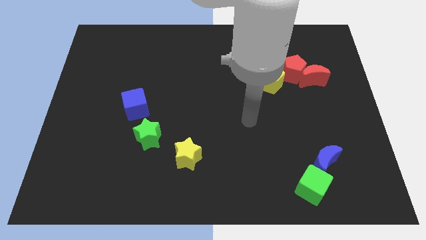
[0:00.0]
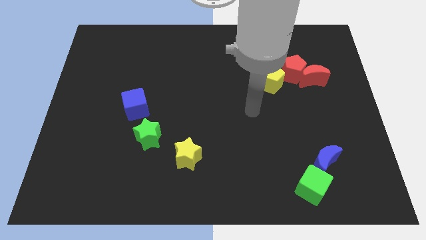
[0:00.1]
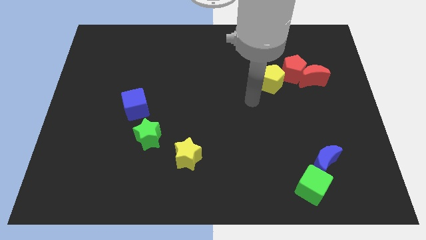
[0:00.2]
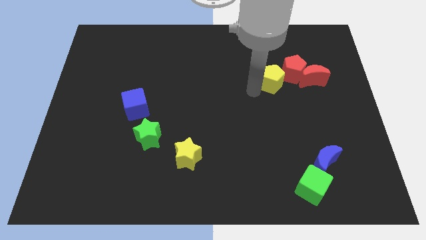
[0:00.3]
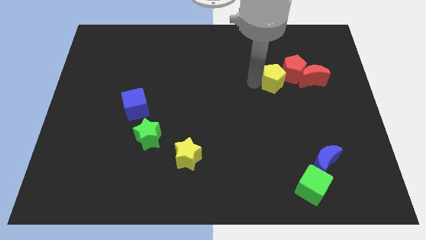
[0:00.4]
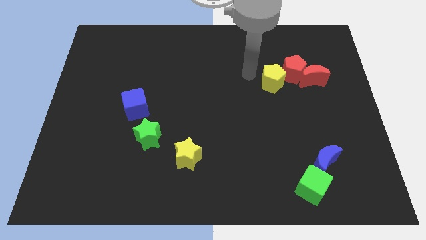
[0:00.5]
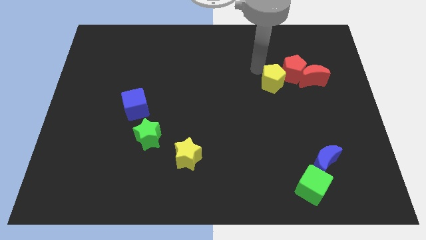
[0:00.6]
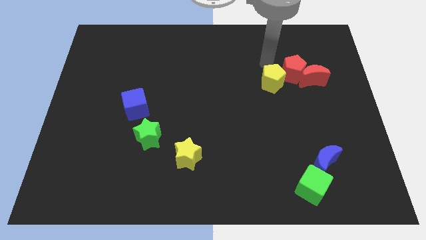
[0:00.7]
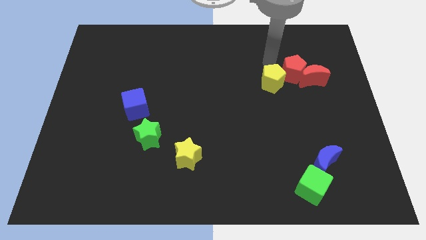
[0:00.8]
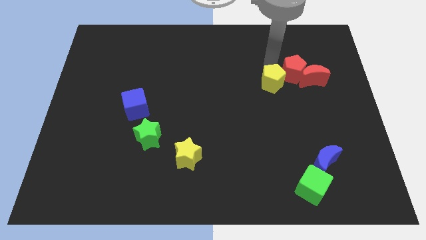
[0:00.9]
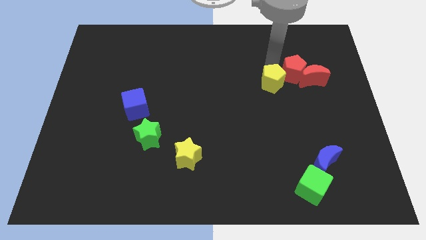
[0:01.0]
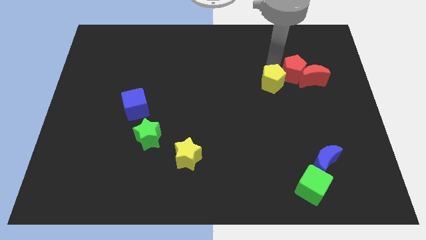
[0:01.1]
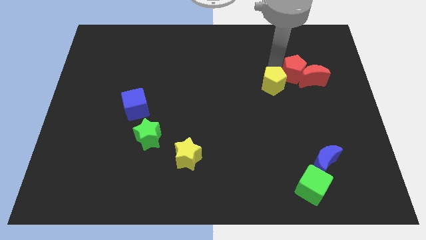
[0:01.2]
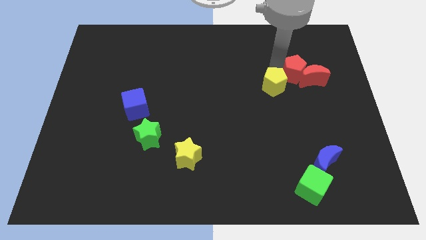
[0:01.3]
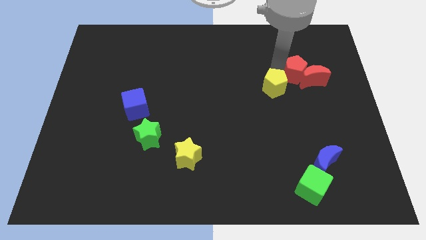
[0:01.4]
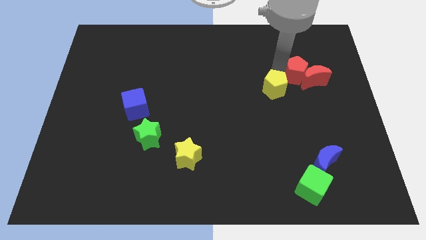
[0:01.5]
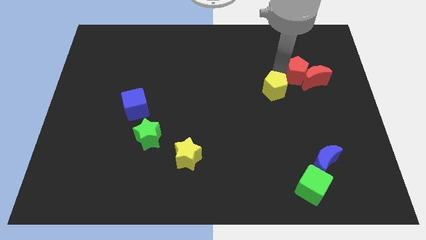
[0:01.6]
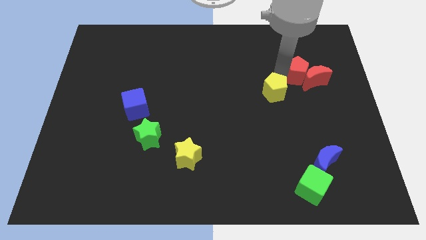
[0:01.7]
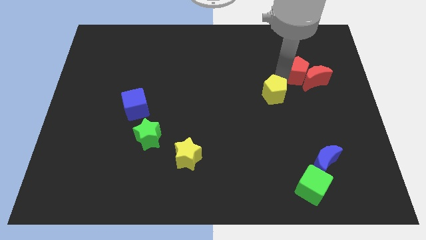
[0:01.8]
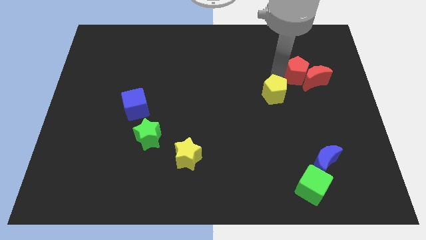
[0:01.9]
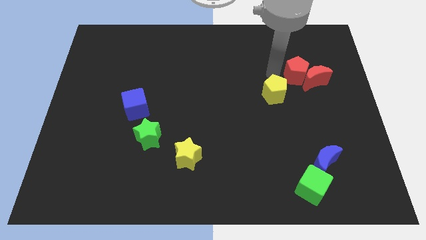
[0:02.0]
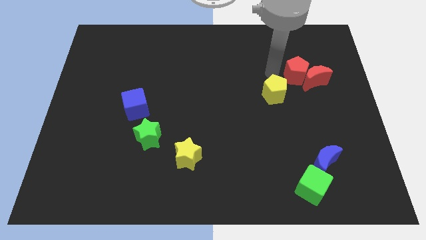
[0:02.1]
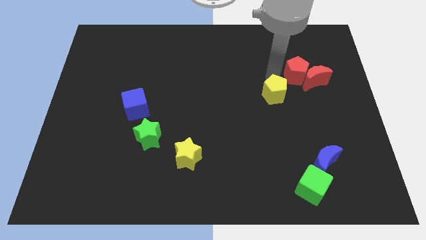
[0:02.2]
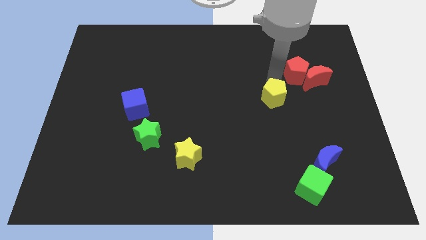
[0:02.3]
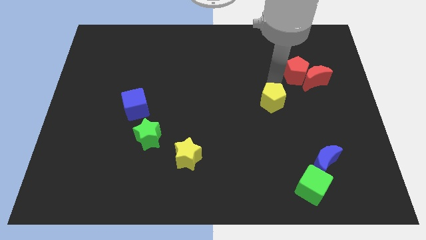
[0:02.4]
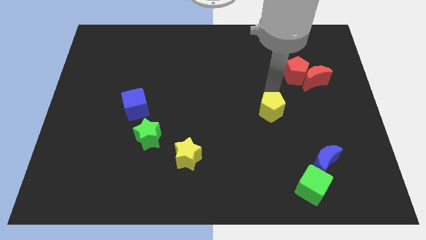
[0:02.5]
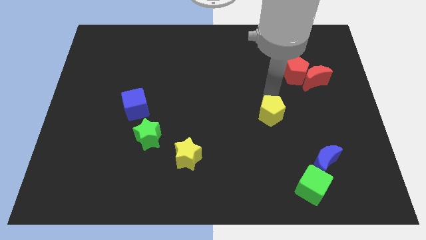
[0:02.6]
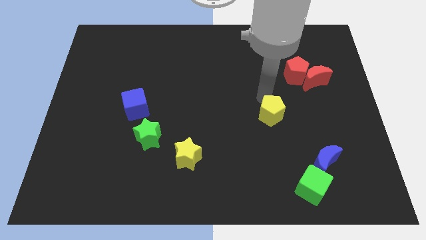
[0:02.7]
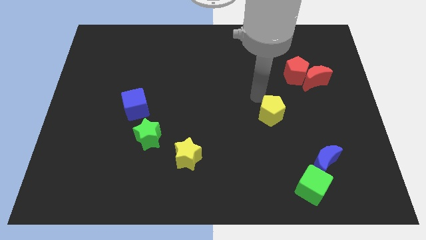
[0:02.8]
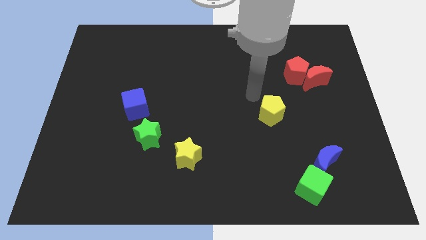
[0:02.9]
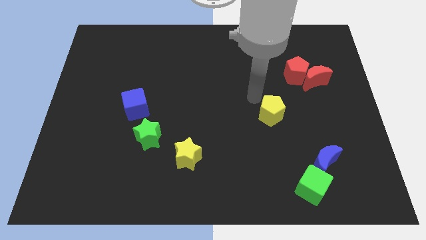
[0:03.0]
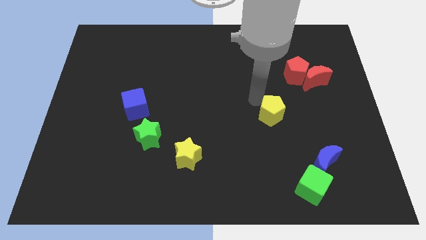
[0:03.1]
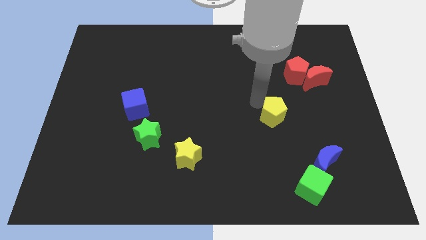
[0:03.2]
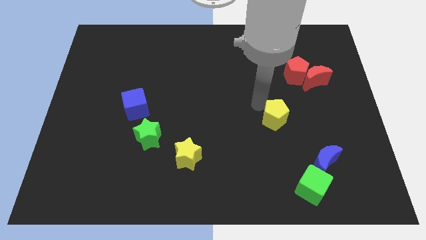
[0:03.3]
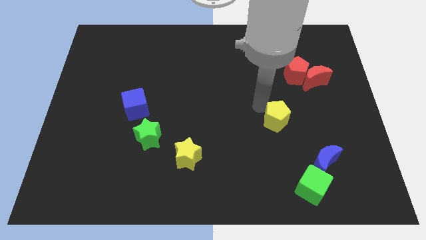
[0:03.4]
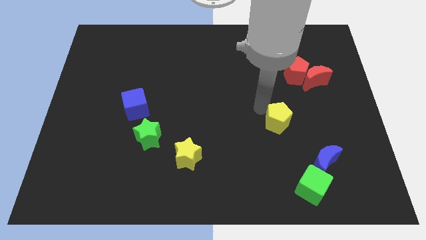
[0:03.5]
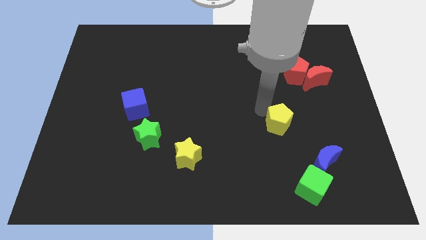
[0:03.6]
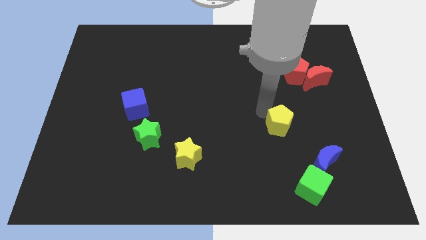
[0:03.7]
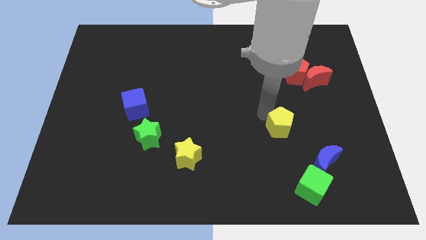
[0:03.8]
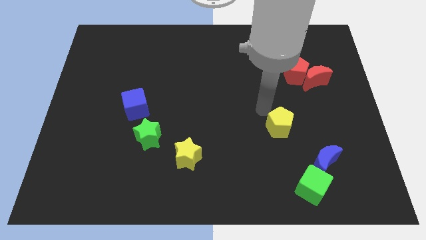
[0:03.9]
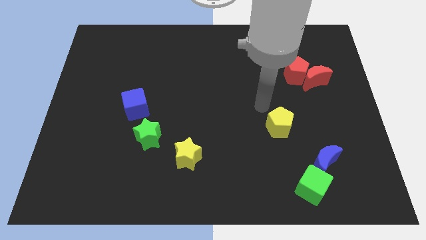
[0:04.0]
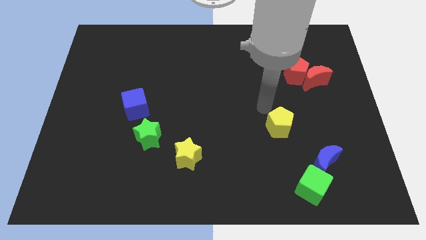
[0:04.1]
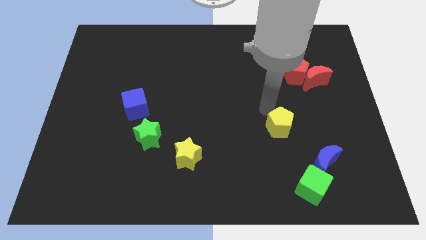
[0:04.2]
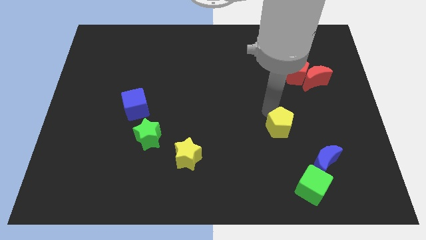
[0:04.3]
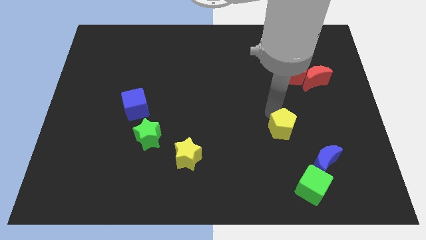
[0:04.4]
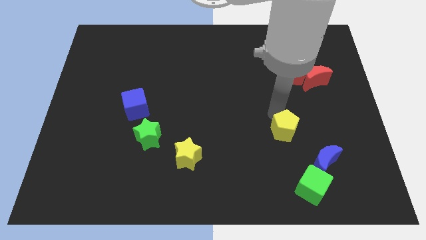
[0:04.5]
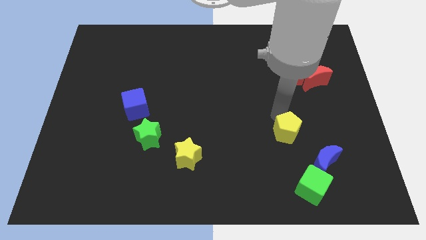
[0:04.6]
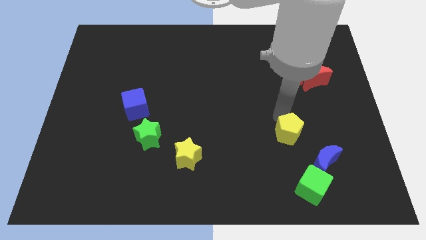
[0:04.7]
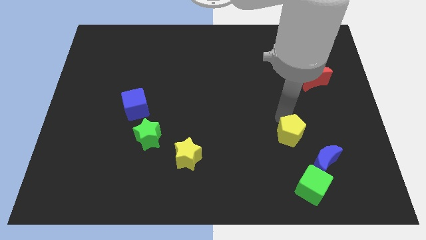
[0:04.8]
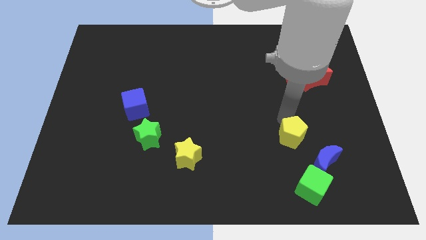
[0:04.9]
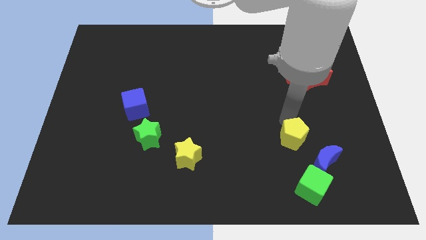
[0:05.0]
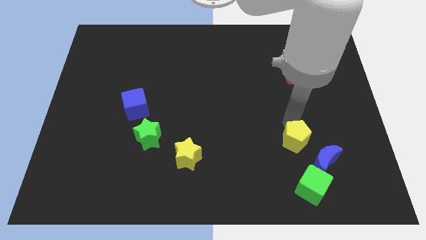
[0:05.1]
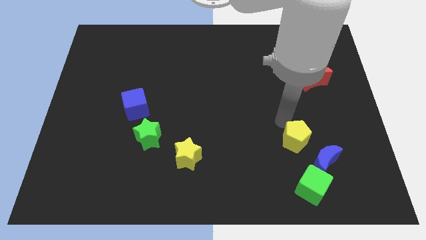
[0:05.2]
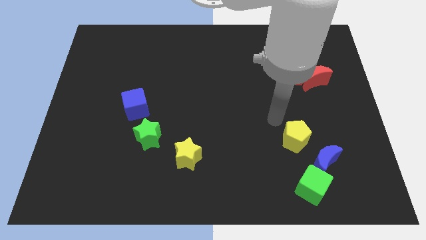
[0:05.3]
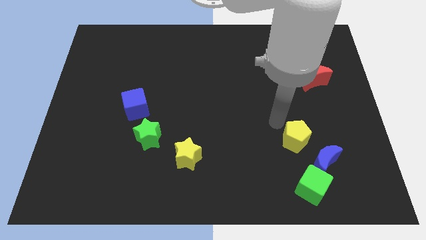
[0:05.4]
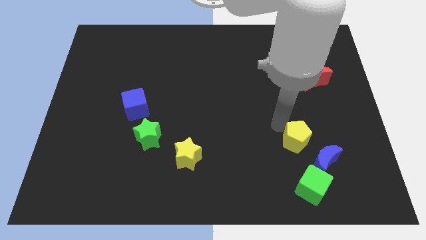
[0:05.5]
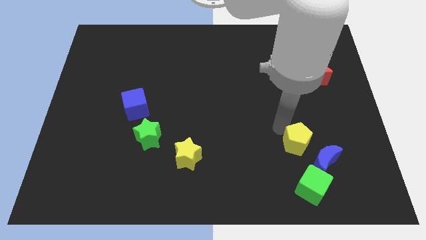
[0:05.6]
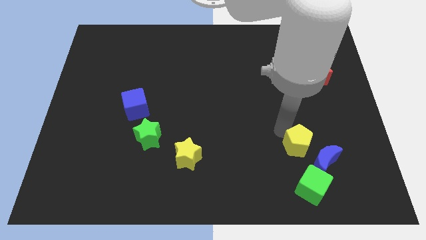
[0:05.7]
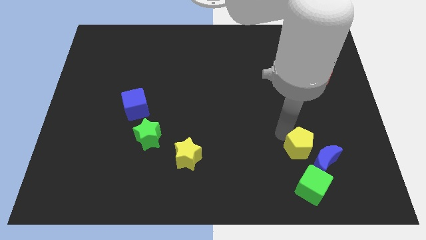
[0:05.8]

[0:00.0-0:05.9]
push the yellow pentagon towards the blue moon

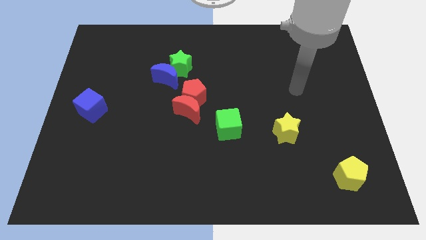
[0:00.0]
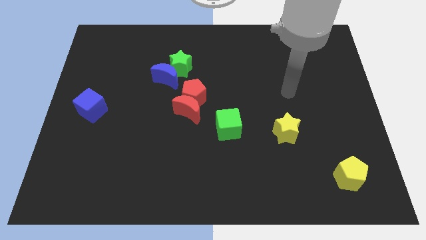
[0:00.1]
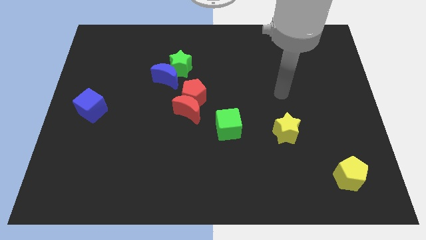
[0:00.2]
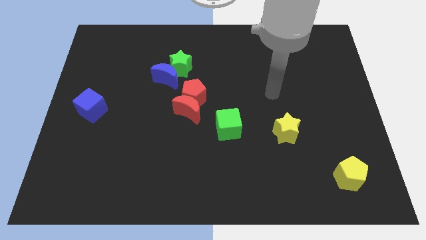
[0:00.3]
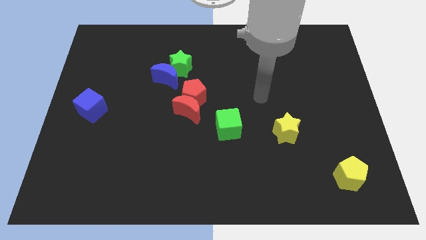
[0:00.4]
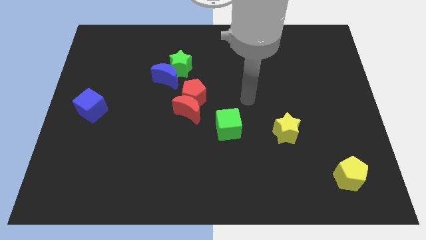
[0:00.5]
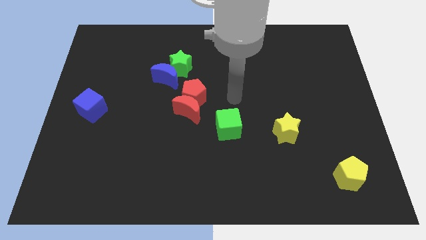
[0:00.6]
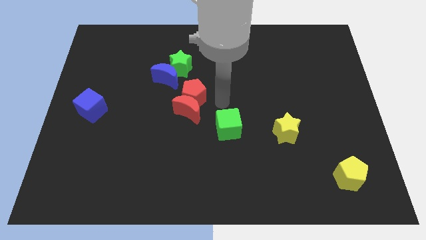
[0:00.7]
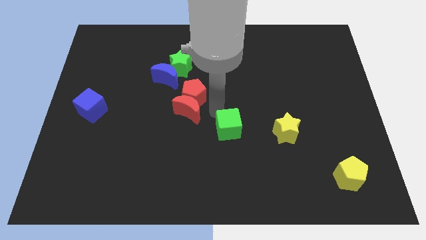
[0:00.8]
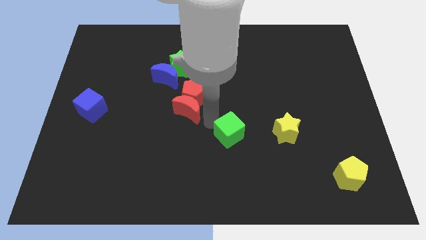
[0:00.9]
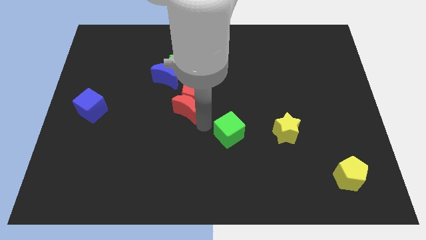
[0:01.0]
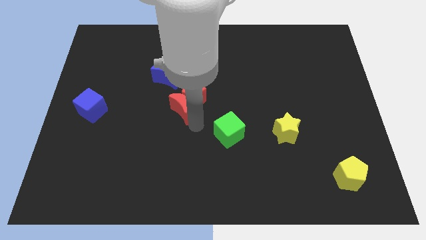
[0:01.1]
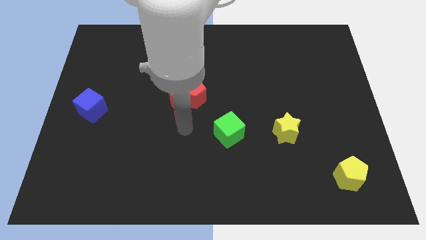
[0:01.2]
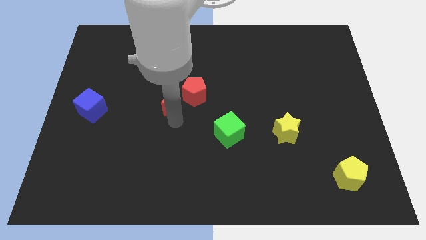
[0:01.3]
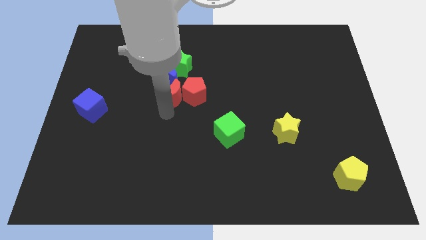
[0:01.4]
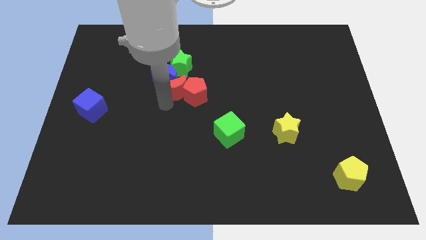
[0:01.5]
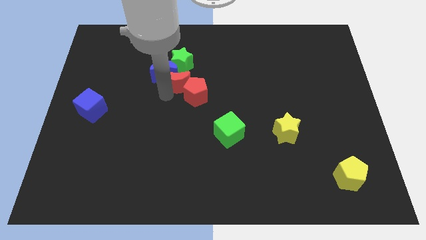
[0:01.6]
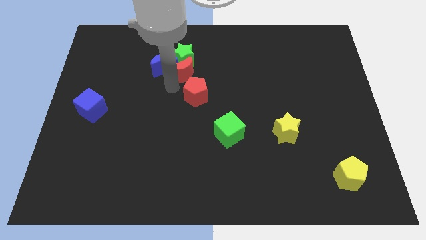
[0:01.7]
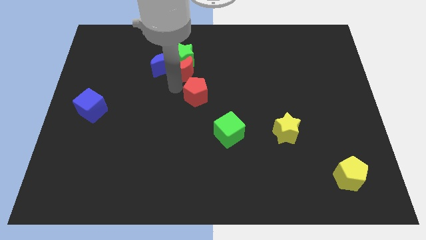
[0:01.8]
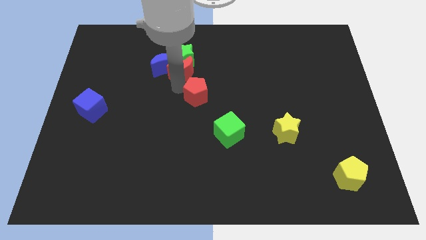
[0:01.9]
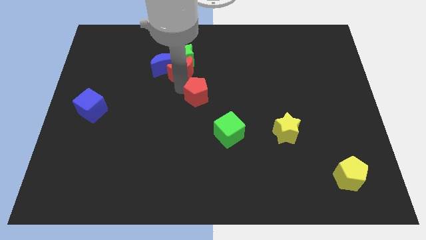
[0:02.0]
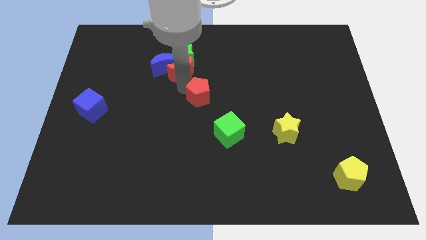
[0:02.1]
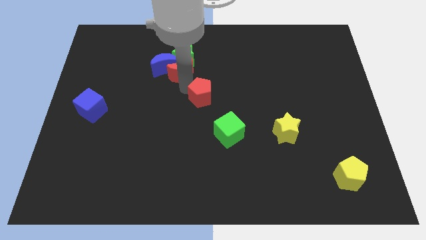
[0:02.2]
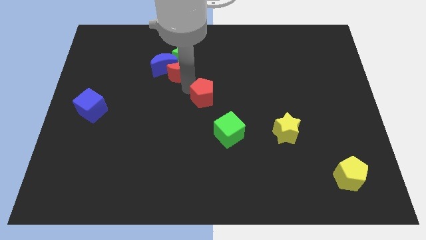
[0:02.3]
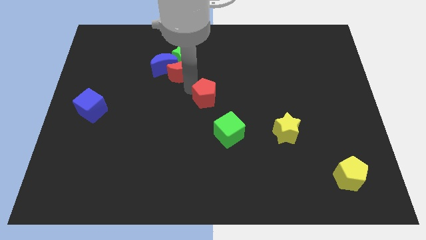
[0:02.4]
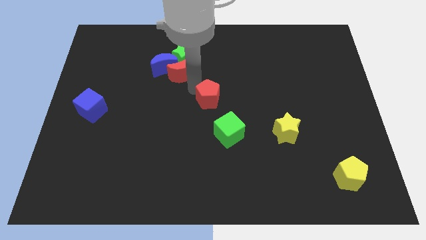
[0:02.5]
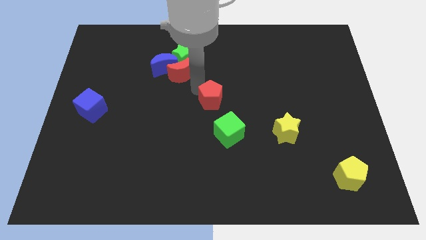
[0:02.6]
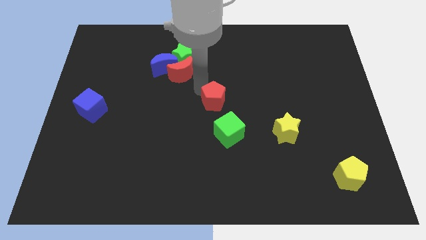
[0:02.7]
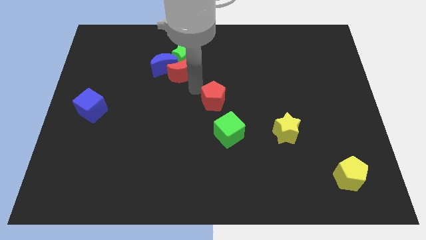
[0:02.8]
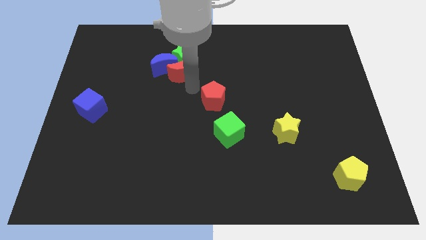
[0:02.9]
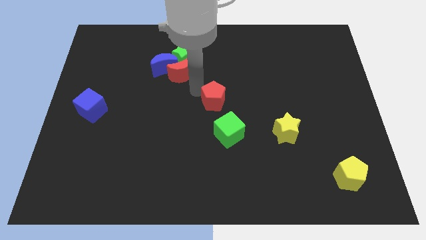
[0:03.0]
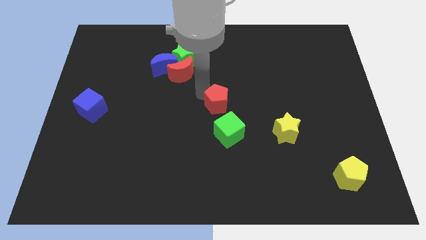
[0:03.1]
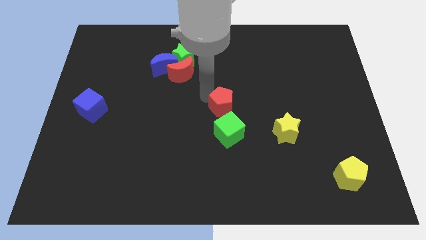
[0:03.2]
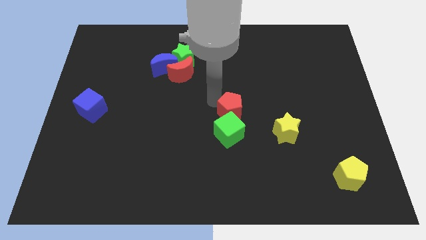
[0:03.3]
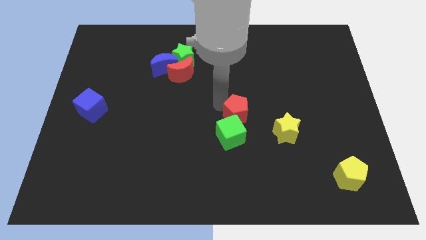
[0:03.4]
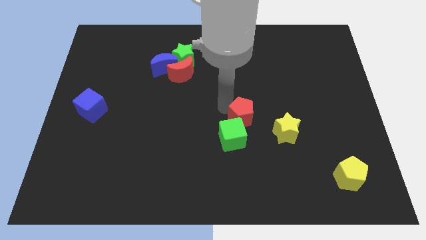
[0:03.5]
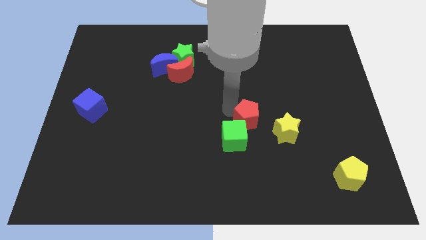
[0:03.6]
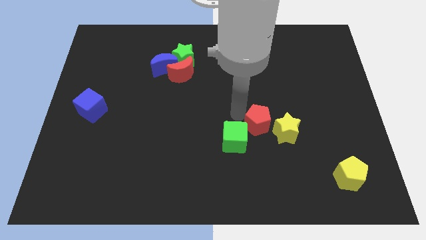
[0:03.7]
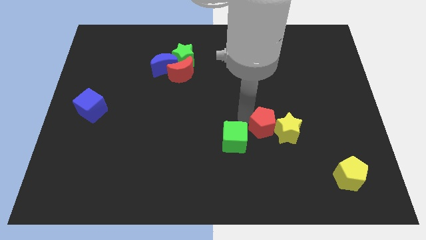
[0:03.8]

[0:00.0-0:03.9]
slide the red pentagon to the yellow star
